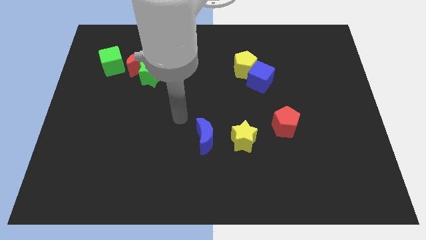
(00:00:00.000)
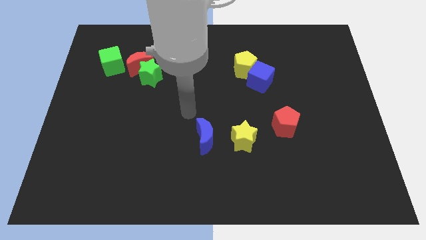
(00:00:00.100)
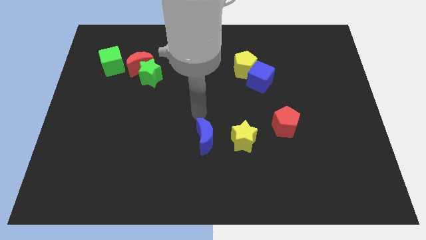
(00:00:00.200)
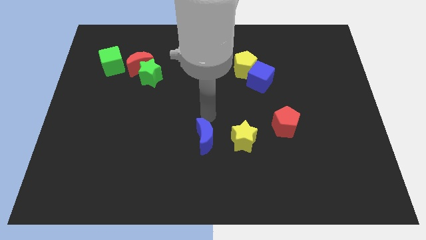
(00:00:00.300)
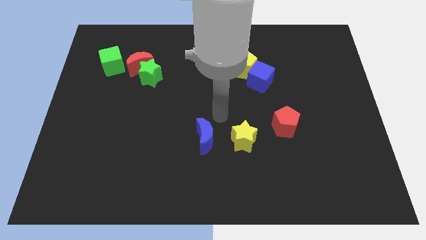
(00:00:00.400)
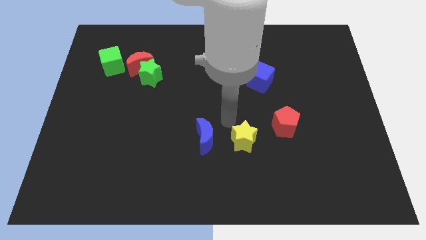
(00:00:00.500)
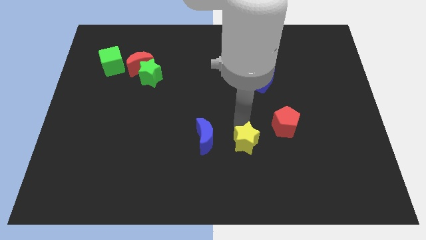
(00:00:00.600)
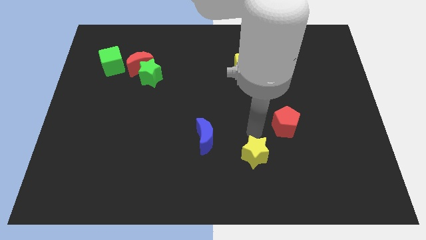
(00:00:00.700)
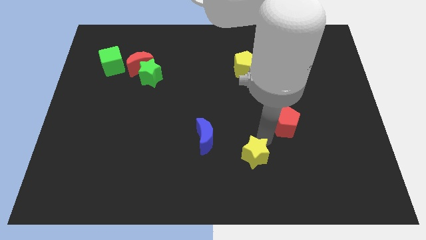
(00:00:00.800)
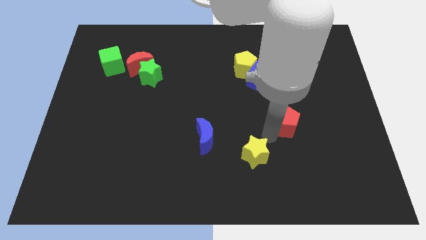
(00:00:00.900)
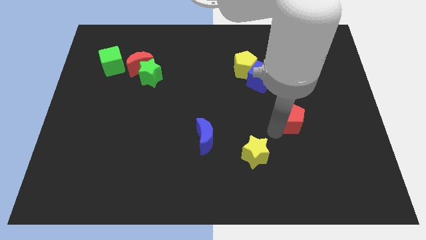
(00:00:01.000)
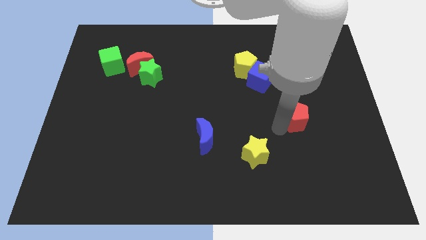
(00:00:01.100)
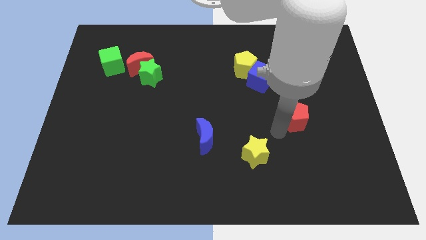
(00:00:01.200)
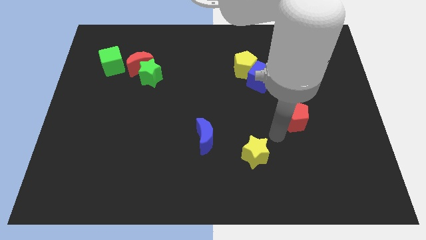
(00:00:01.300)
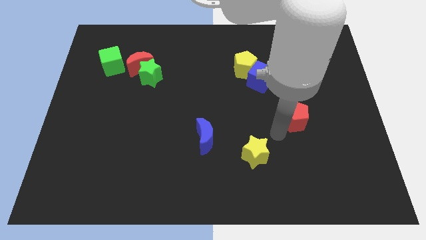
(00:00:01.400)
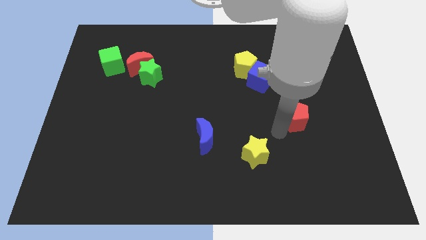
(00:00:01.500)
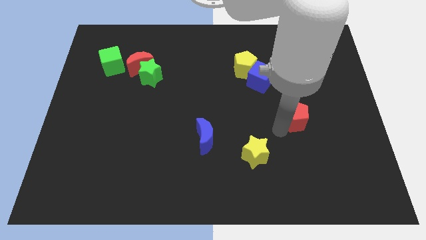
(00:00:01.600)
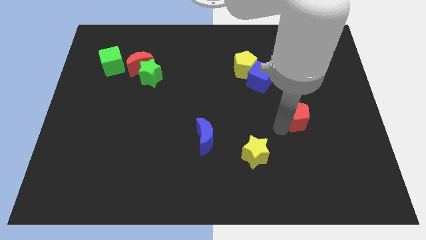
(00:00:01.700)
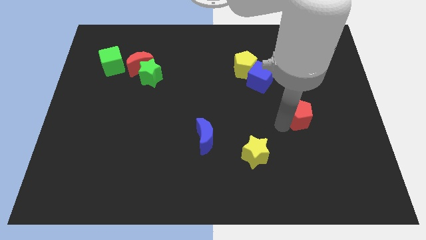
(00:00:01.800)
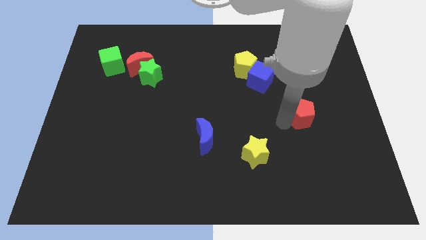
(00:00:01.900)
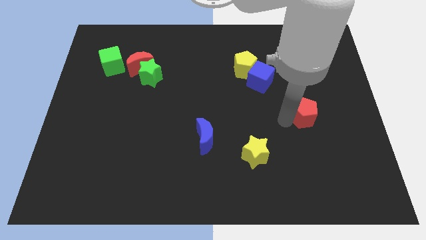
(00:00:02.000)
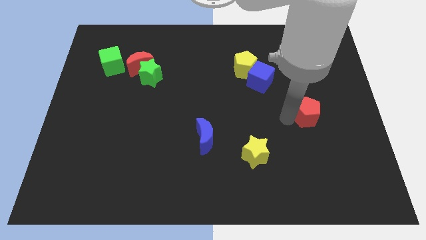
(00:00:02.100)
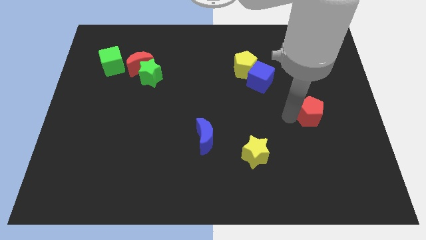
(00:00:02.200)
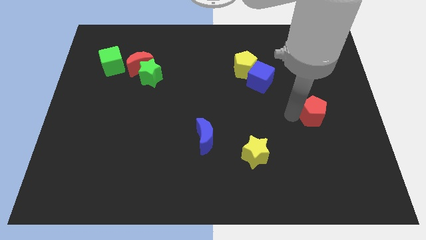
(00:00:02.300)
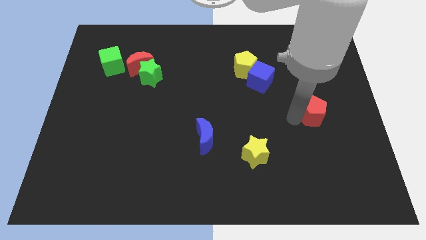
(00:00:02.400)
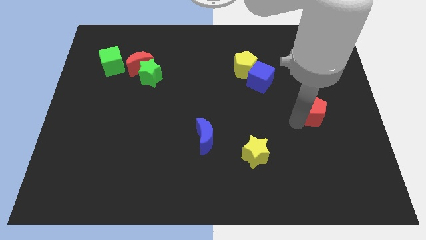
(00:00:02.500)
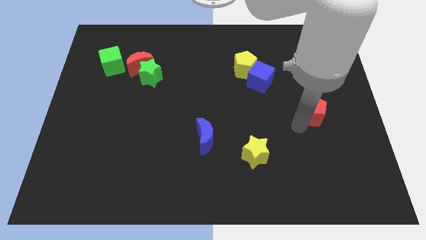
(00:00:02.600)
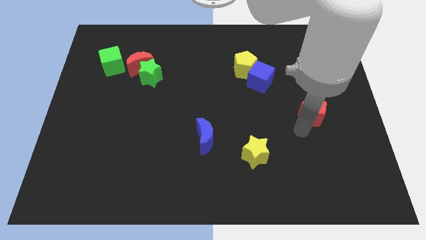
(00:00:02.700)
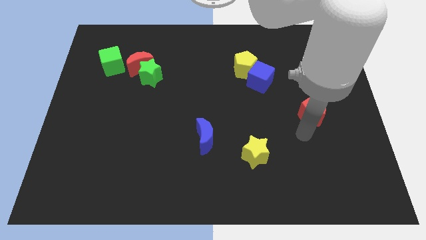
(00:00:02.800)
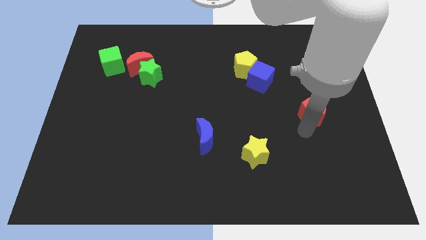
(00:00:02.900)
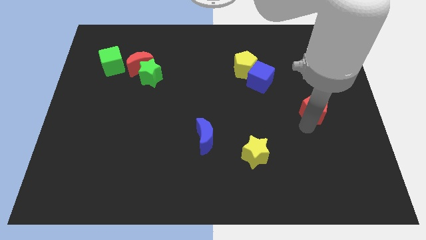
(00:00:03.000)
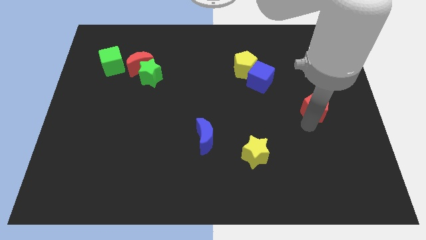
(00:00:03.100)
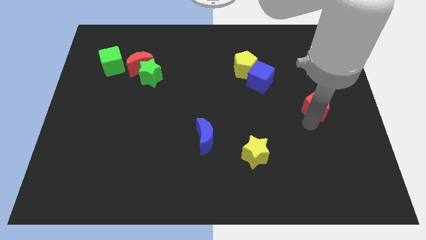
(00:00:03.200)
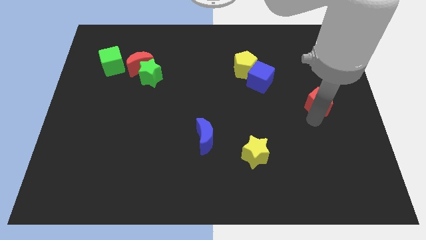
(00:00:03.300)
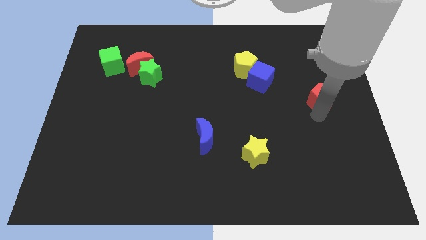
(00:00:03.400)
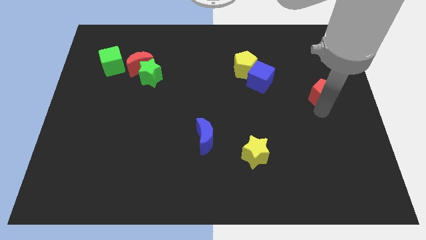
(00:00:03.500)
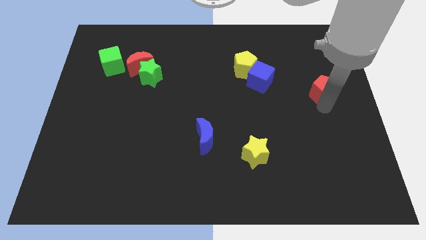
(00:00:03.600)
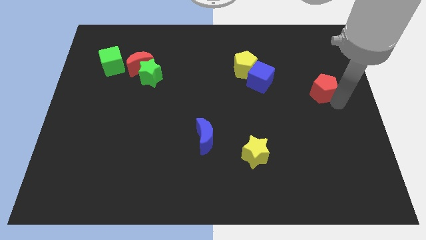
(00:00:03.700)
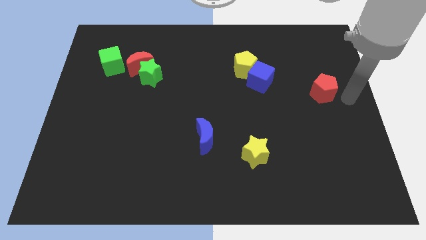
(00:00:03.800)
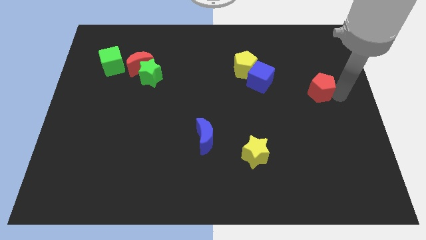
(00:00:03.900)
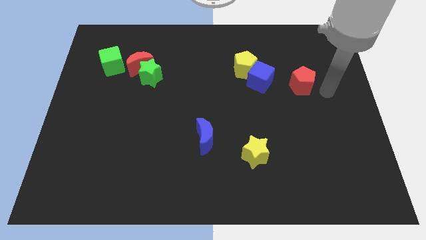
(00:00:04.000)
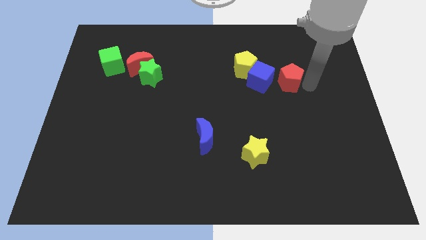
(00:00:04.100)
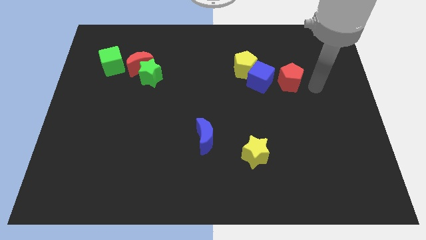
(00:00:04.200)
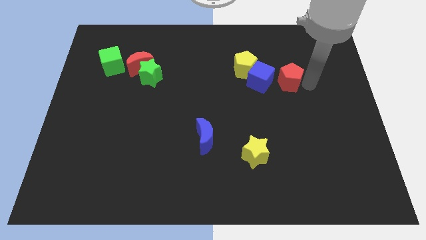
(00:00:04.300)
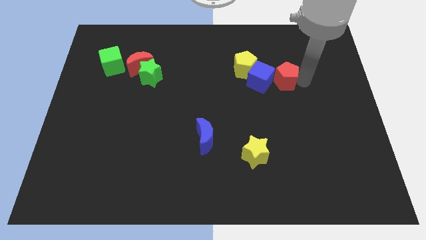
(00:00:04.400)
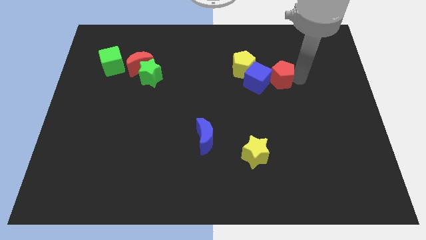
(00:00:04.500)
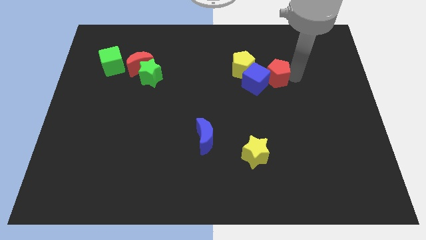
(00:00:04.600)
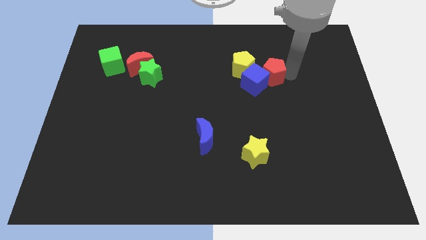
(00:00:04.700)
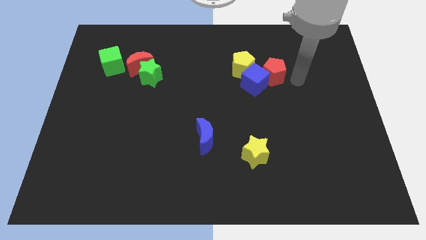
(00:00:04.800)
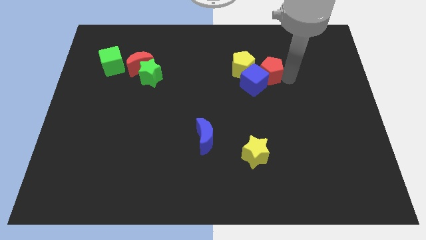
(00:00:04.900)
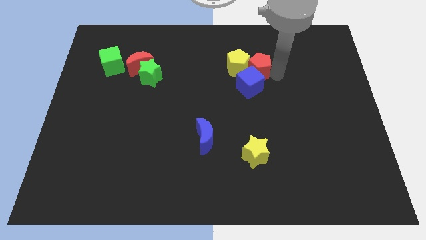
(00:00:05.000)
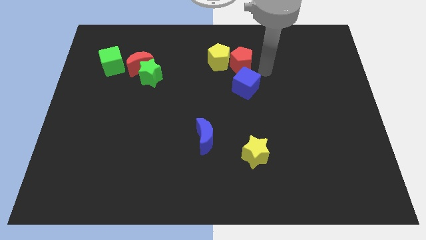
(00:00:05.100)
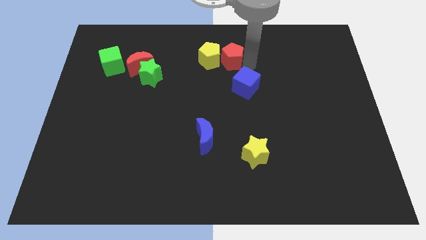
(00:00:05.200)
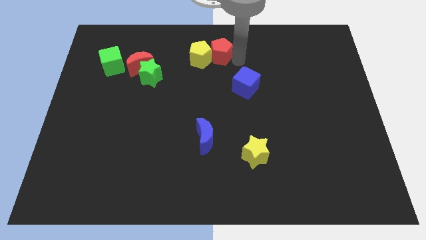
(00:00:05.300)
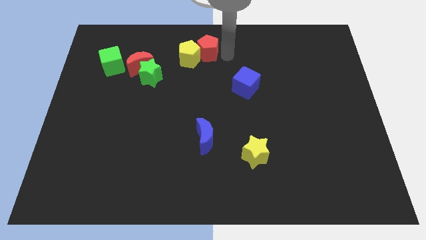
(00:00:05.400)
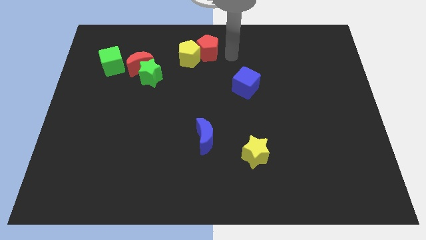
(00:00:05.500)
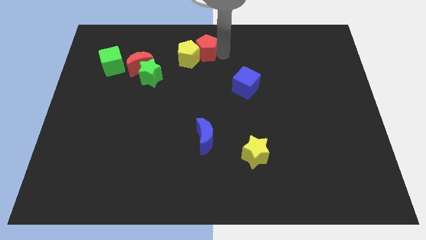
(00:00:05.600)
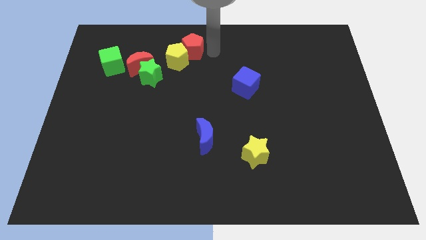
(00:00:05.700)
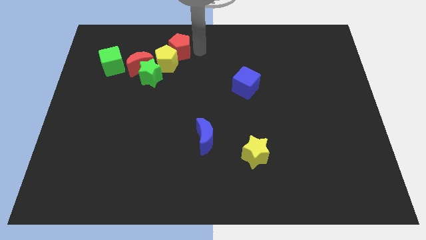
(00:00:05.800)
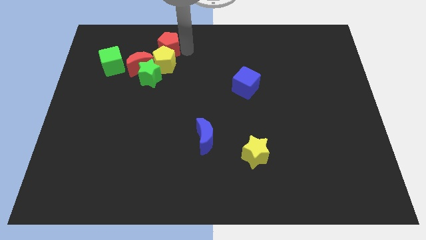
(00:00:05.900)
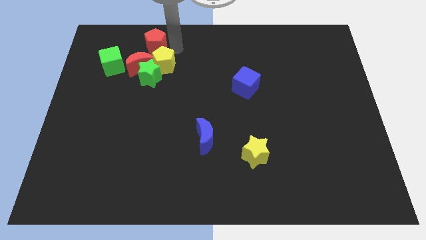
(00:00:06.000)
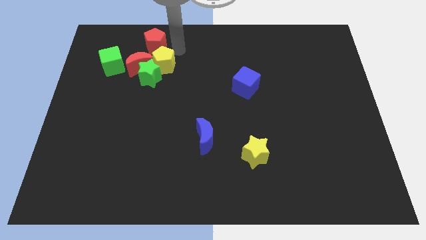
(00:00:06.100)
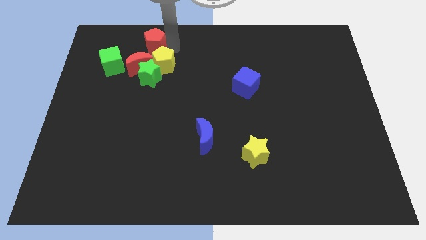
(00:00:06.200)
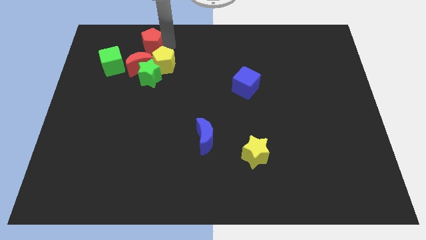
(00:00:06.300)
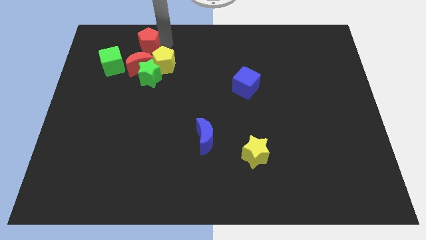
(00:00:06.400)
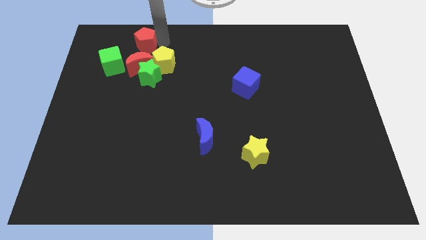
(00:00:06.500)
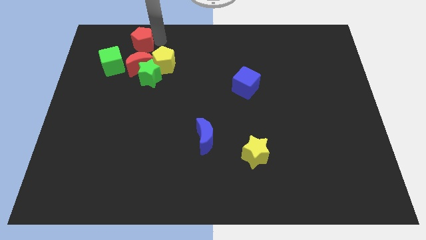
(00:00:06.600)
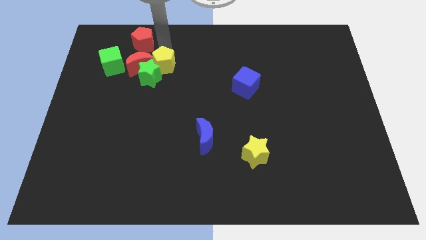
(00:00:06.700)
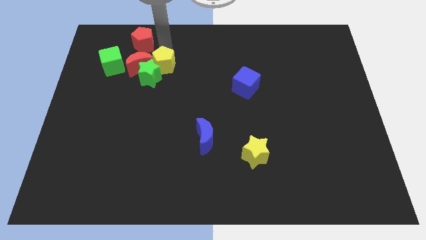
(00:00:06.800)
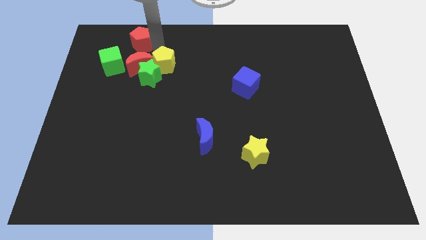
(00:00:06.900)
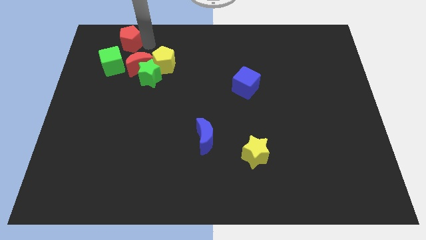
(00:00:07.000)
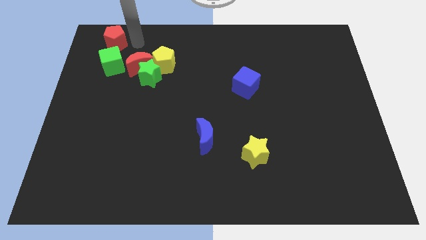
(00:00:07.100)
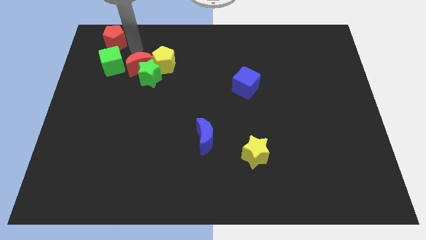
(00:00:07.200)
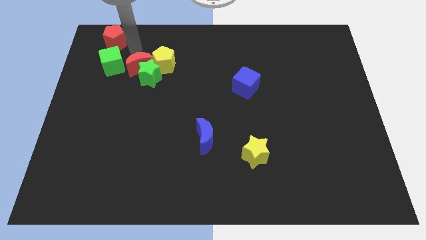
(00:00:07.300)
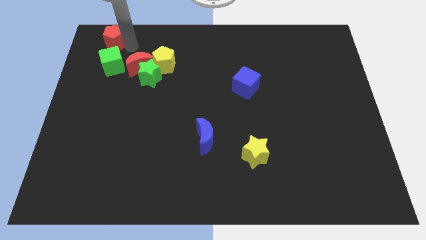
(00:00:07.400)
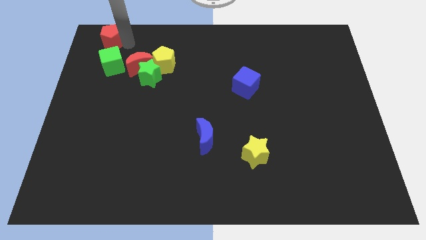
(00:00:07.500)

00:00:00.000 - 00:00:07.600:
push the red pentagon to the upper left corner
